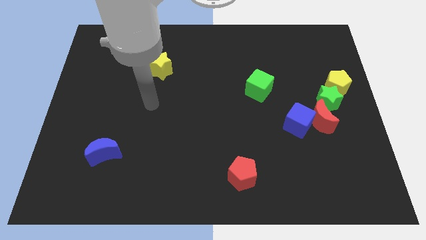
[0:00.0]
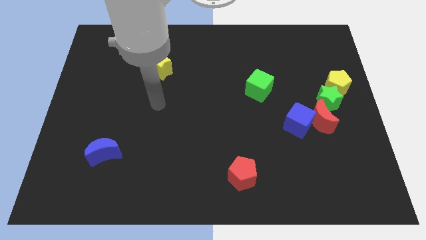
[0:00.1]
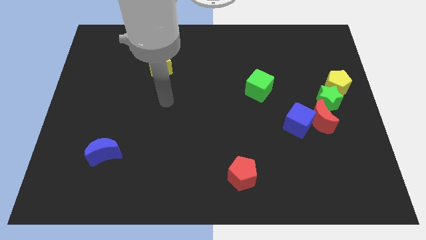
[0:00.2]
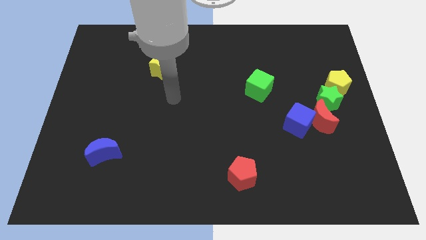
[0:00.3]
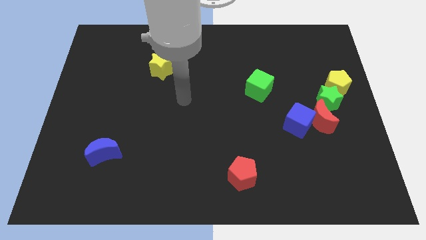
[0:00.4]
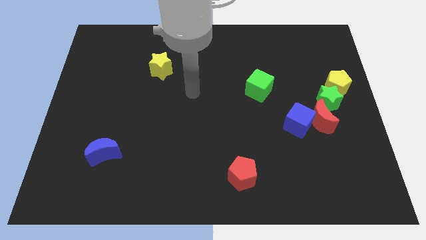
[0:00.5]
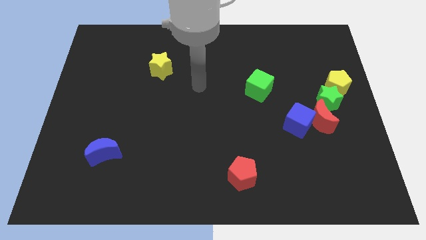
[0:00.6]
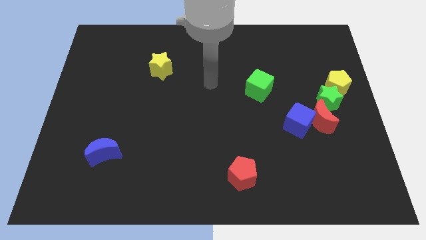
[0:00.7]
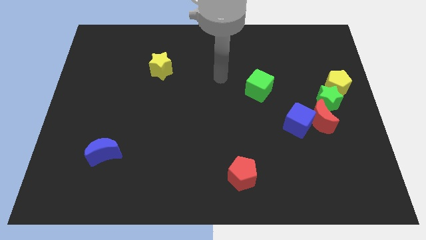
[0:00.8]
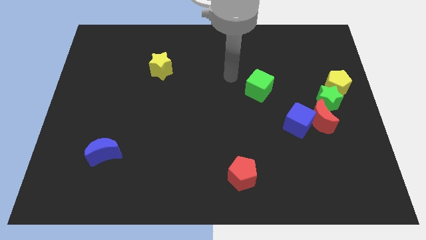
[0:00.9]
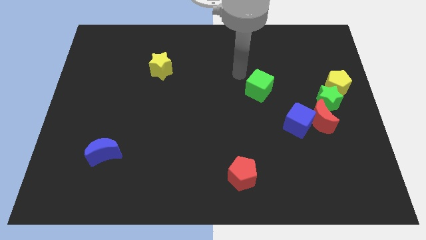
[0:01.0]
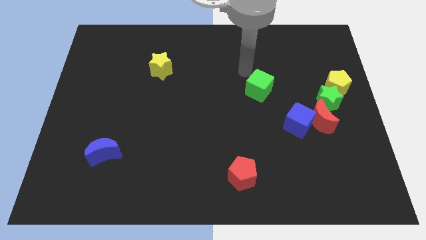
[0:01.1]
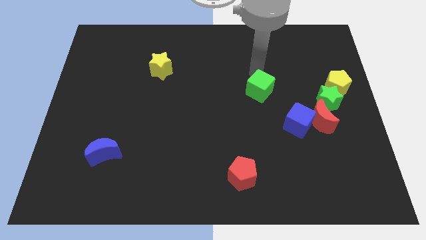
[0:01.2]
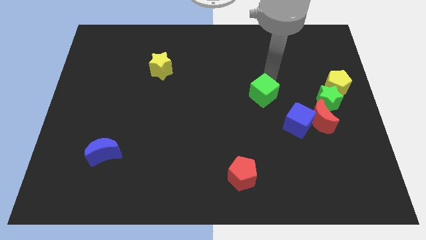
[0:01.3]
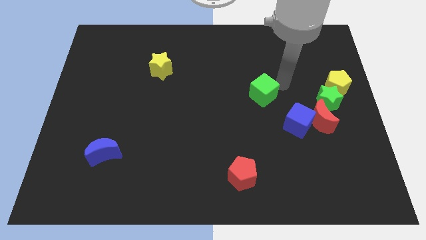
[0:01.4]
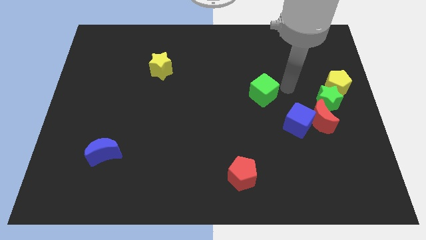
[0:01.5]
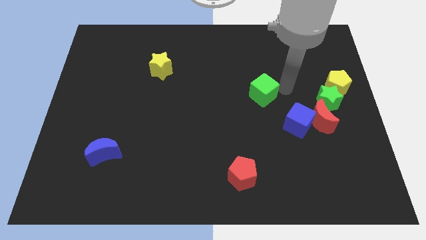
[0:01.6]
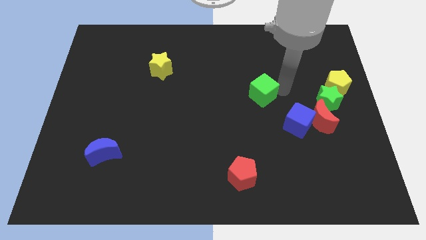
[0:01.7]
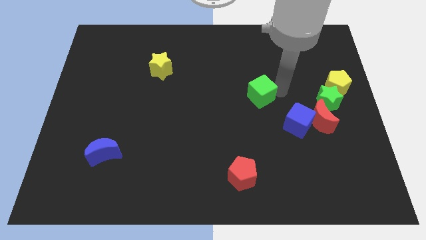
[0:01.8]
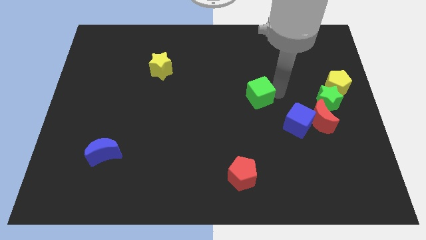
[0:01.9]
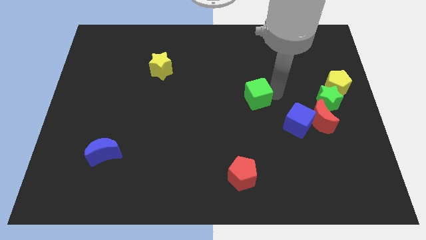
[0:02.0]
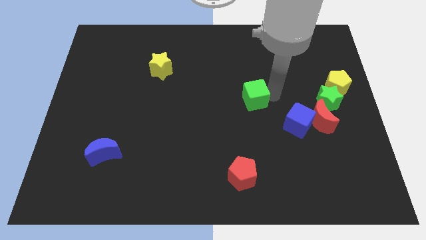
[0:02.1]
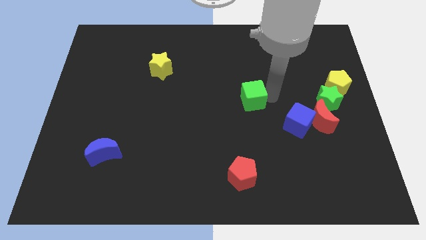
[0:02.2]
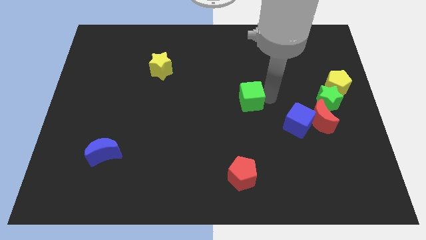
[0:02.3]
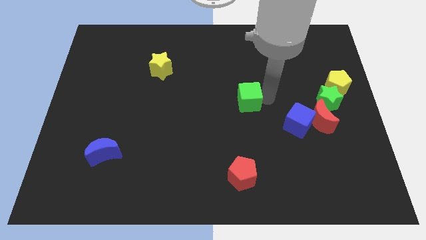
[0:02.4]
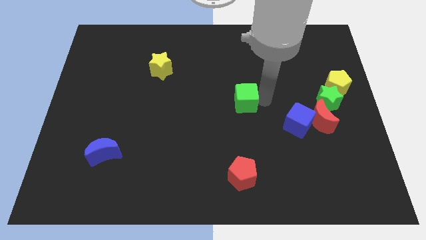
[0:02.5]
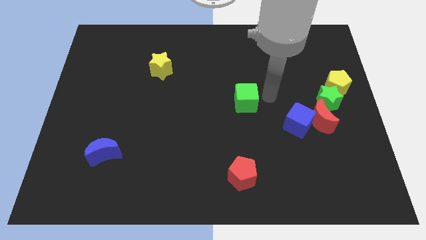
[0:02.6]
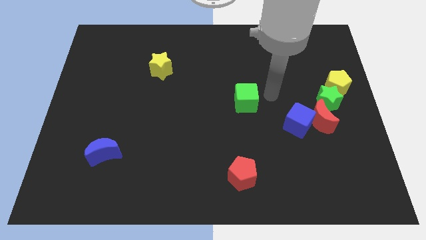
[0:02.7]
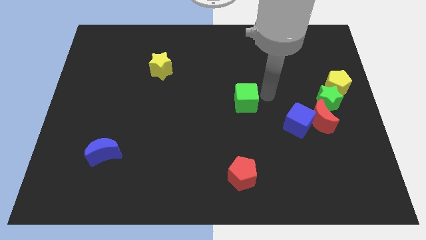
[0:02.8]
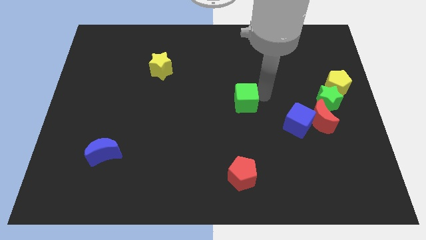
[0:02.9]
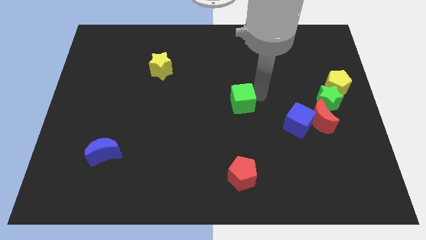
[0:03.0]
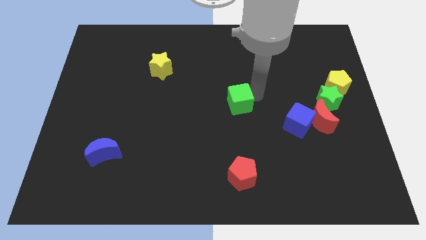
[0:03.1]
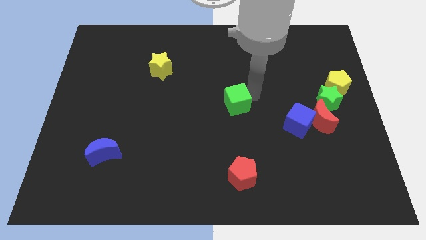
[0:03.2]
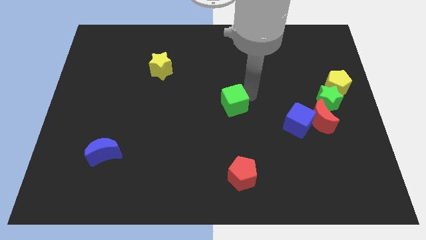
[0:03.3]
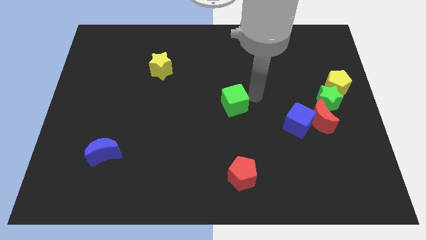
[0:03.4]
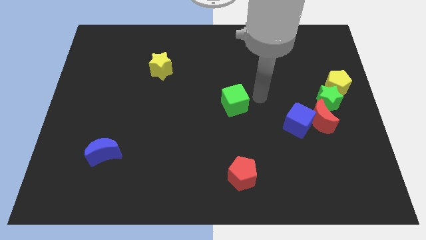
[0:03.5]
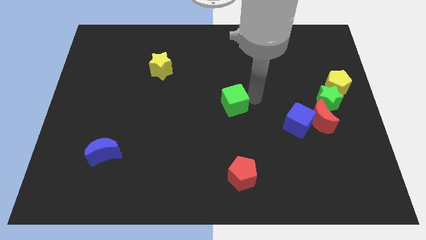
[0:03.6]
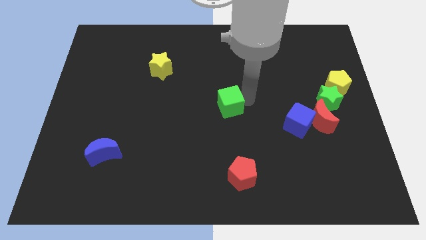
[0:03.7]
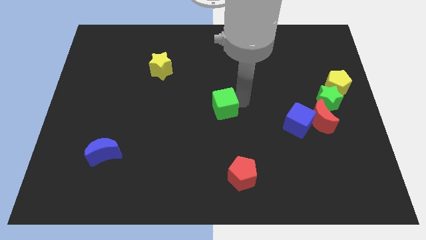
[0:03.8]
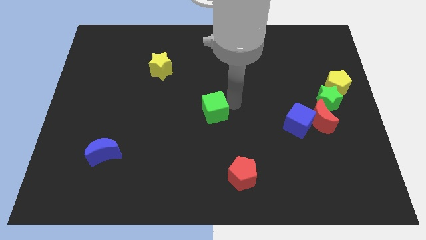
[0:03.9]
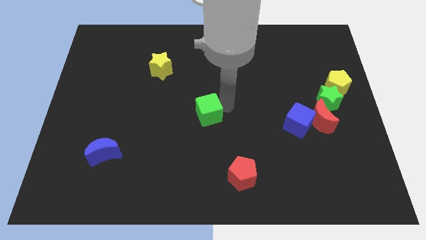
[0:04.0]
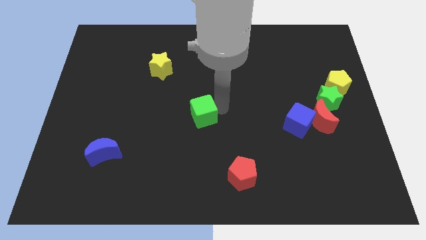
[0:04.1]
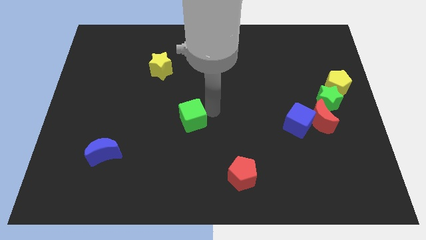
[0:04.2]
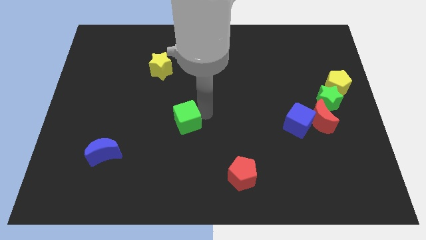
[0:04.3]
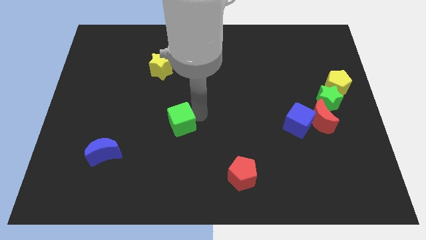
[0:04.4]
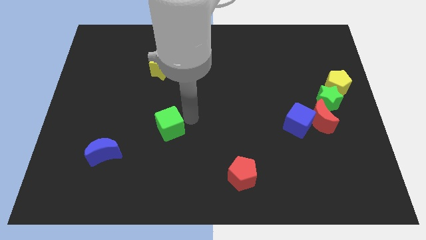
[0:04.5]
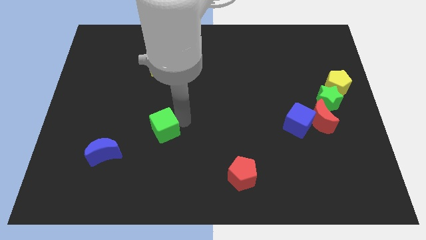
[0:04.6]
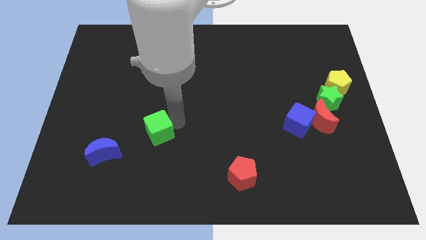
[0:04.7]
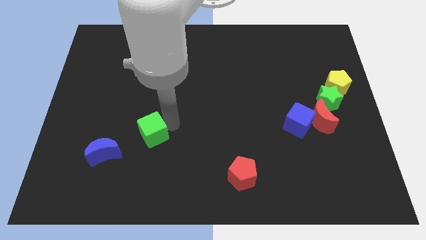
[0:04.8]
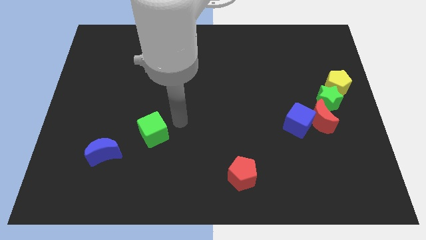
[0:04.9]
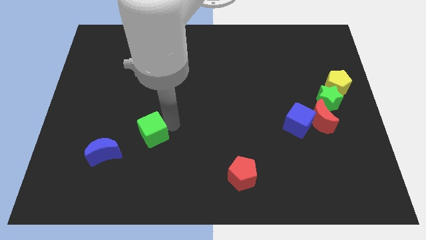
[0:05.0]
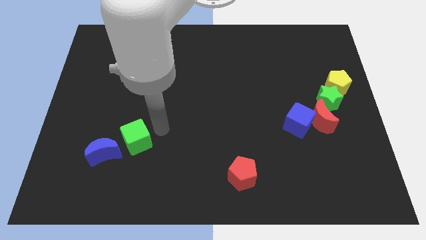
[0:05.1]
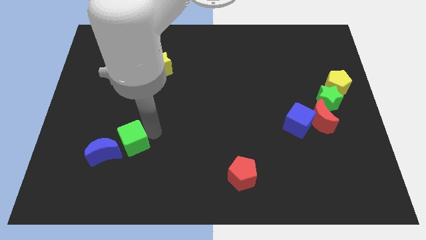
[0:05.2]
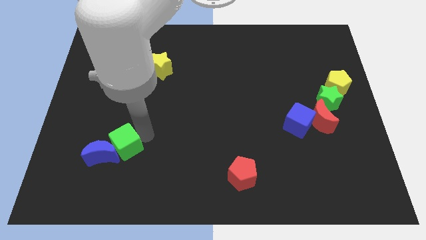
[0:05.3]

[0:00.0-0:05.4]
put the green cube next to the blue moon

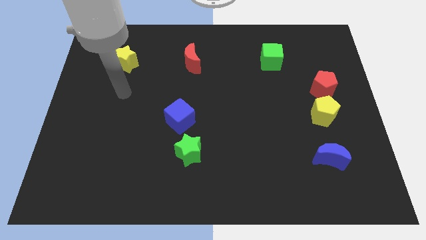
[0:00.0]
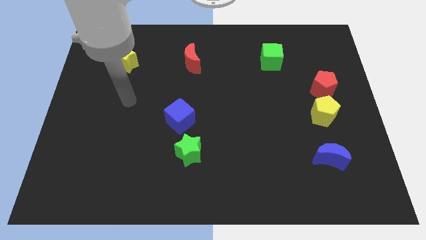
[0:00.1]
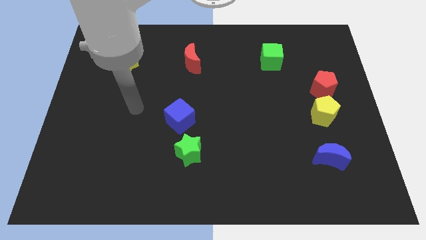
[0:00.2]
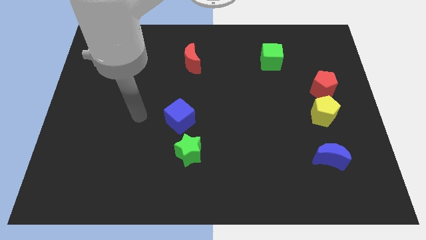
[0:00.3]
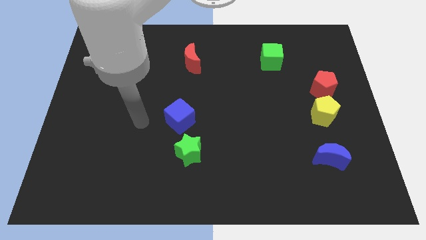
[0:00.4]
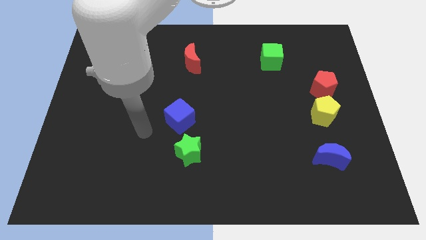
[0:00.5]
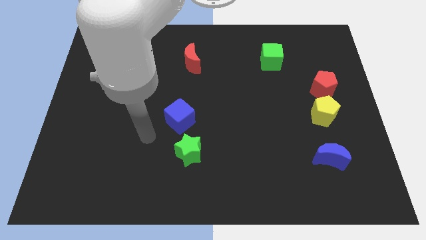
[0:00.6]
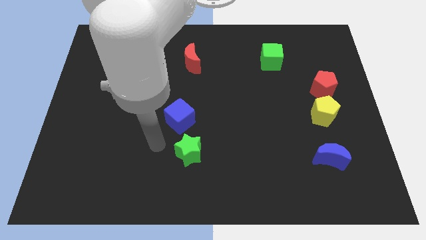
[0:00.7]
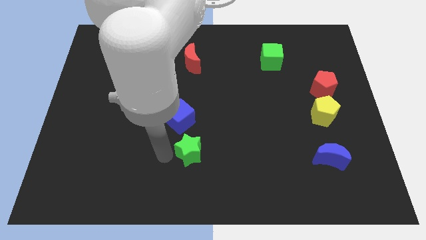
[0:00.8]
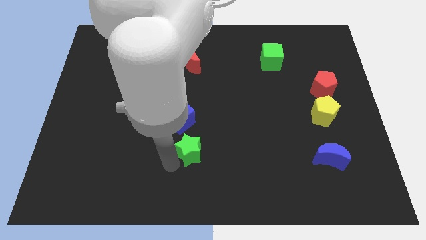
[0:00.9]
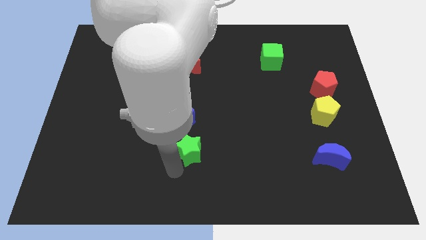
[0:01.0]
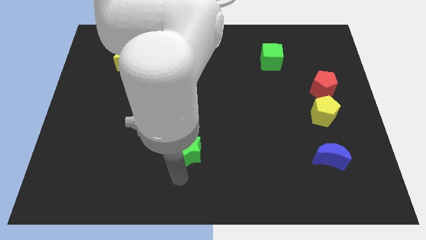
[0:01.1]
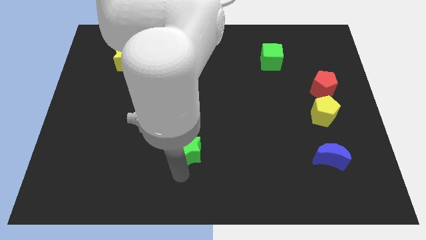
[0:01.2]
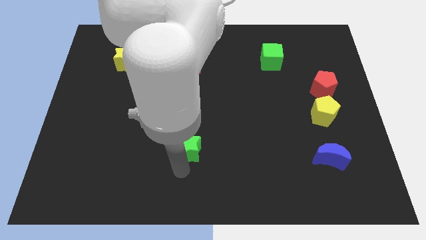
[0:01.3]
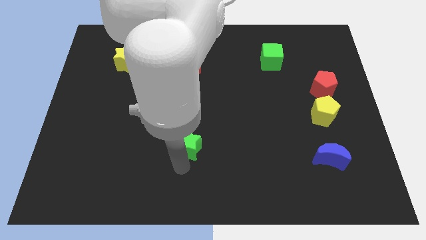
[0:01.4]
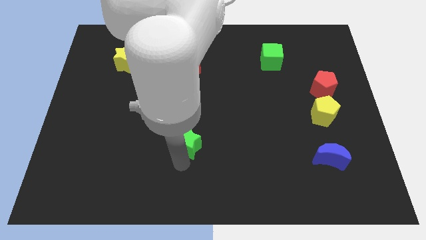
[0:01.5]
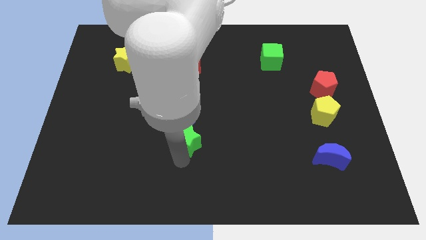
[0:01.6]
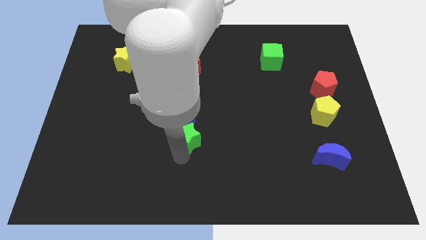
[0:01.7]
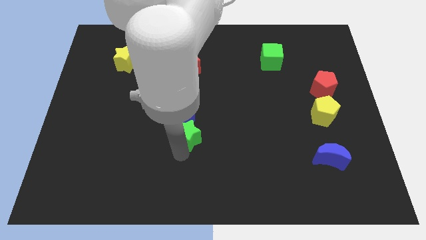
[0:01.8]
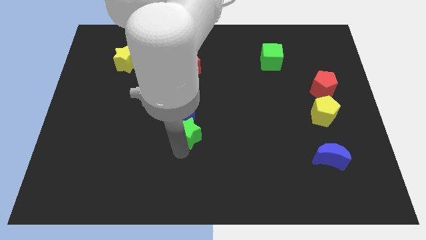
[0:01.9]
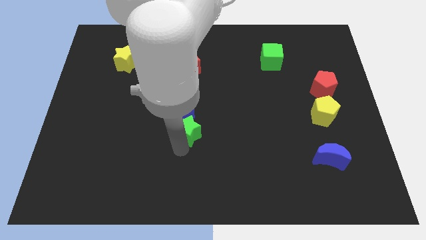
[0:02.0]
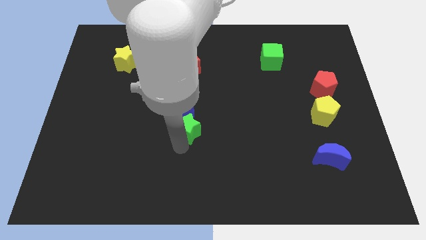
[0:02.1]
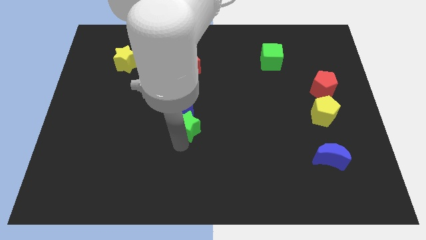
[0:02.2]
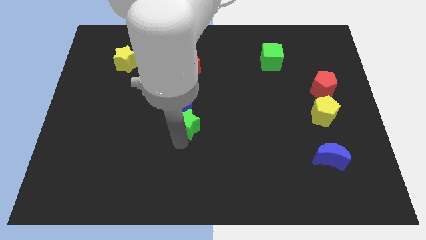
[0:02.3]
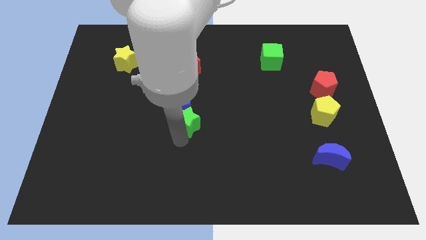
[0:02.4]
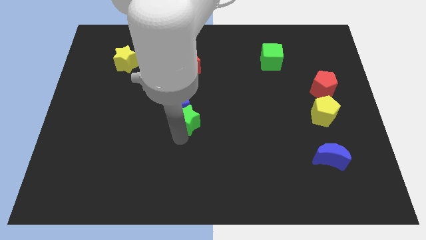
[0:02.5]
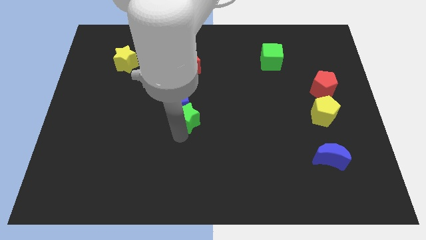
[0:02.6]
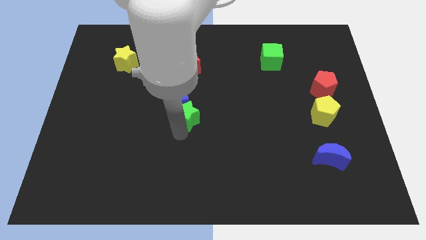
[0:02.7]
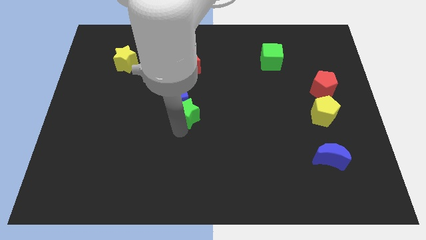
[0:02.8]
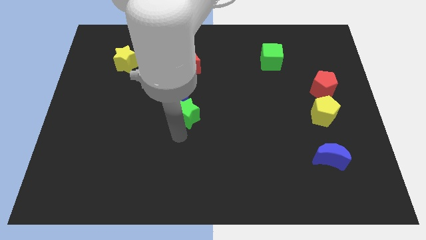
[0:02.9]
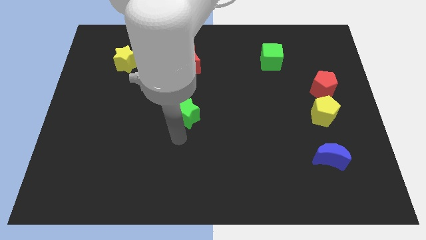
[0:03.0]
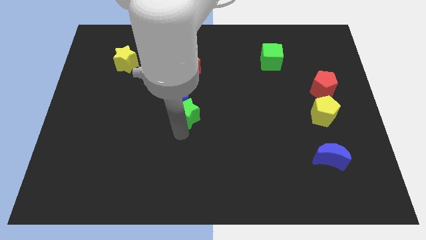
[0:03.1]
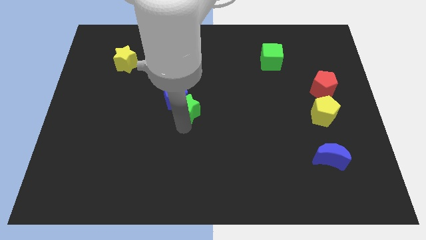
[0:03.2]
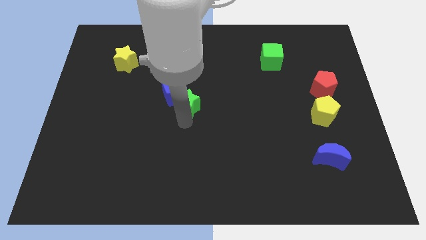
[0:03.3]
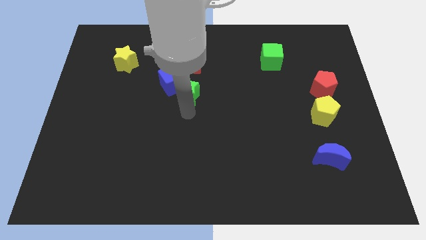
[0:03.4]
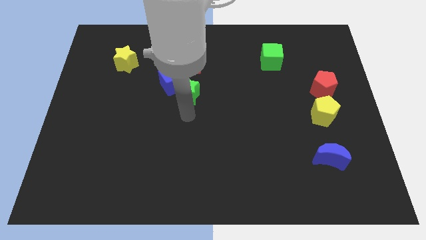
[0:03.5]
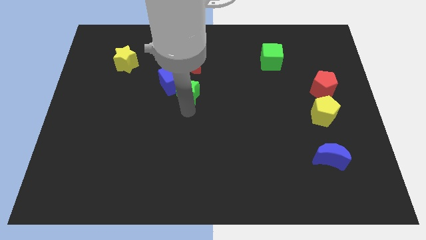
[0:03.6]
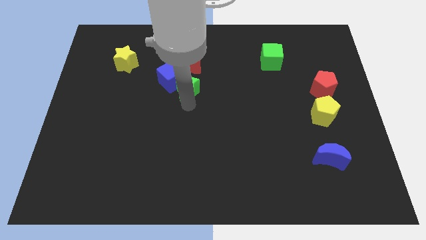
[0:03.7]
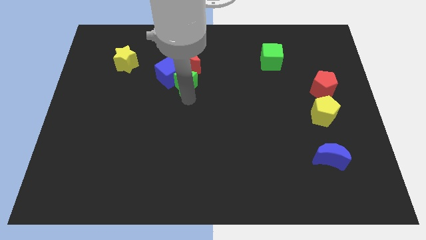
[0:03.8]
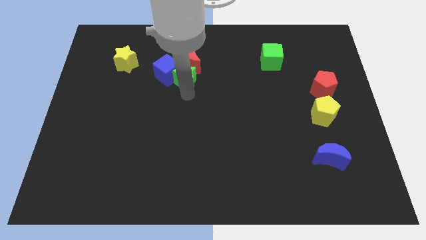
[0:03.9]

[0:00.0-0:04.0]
put the green star to the red moon
